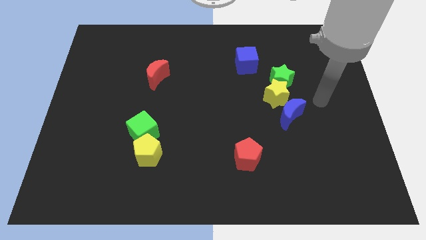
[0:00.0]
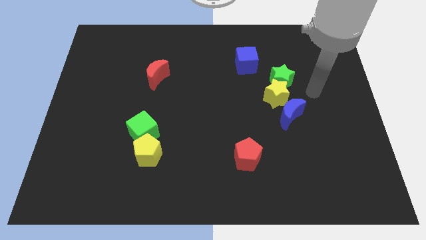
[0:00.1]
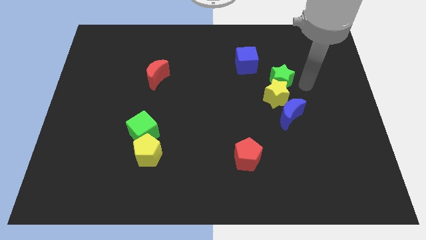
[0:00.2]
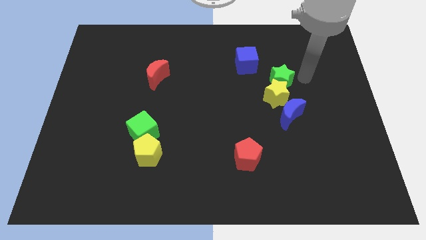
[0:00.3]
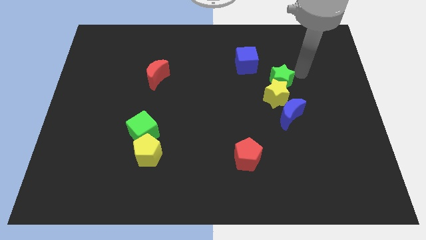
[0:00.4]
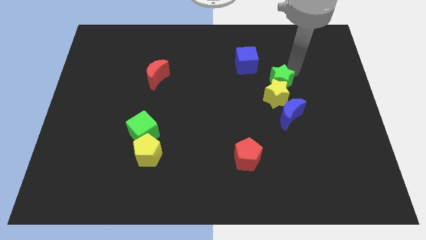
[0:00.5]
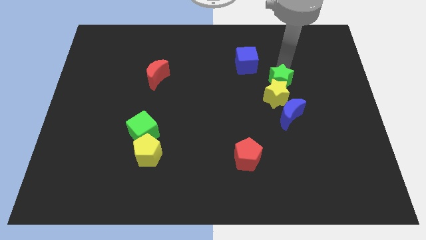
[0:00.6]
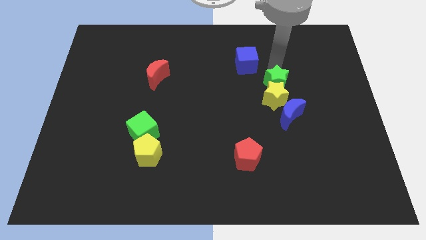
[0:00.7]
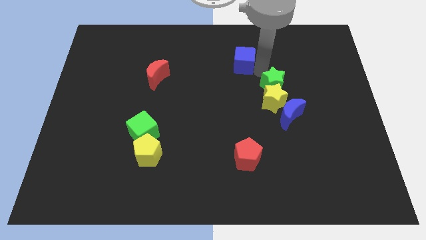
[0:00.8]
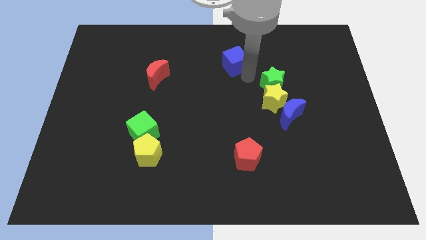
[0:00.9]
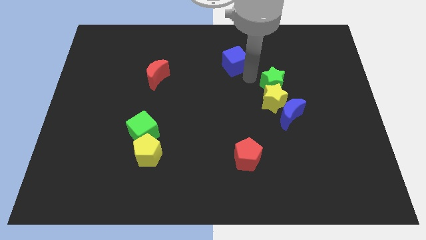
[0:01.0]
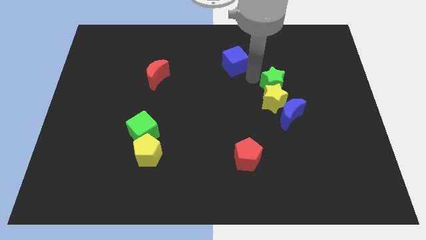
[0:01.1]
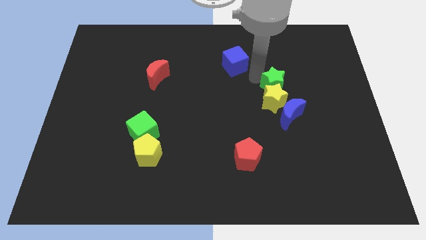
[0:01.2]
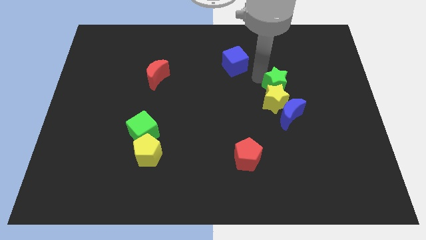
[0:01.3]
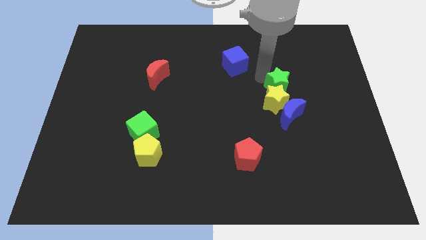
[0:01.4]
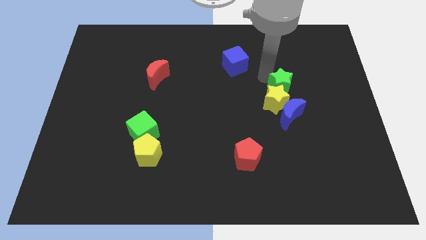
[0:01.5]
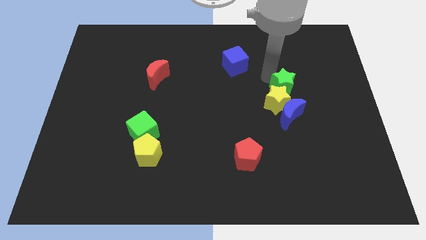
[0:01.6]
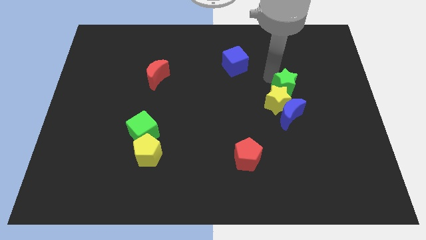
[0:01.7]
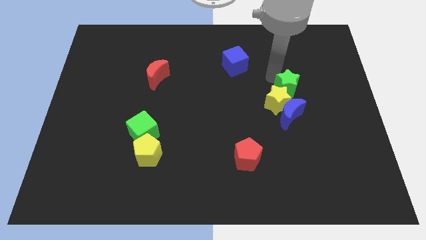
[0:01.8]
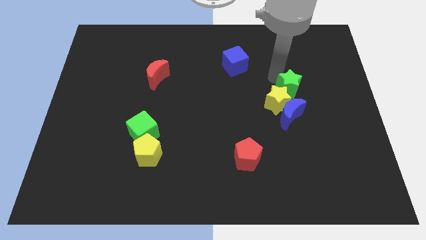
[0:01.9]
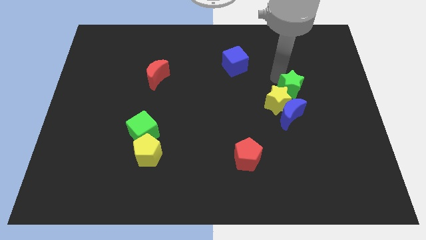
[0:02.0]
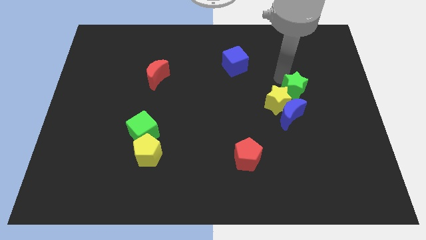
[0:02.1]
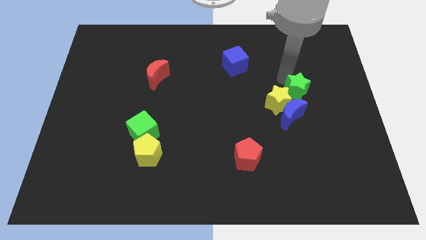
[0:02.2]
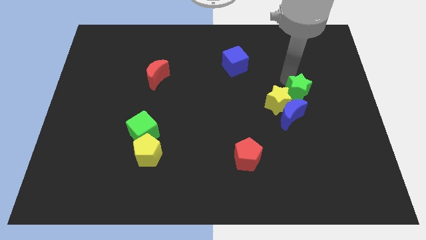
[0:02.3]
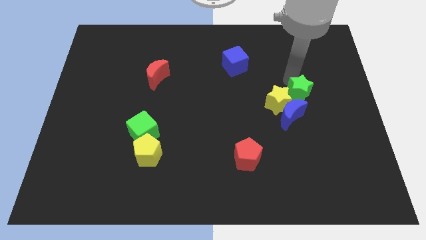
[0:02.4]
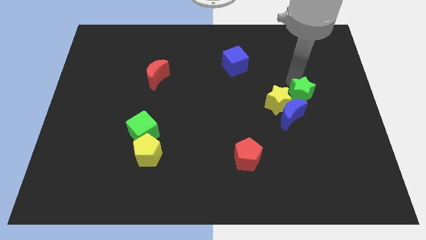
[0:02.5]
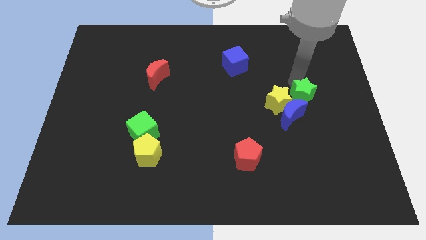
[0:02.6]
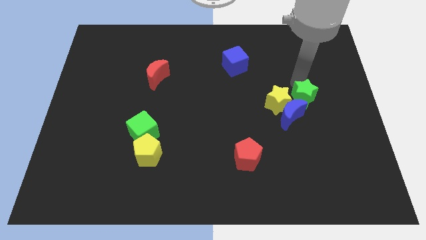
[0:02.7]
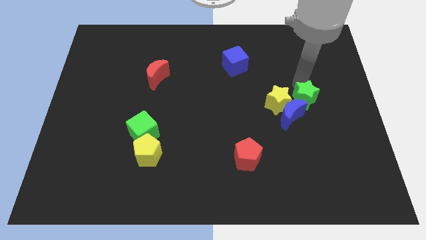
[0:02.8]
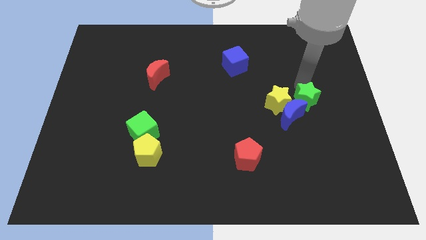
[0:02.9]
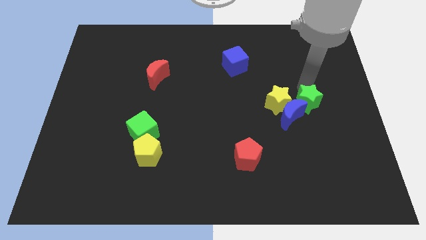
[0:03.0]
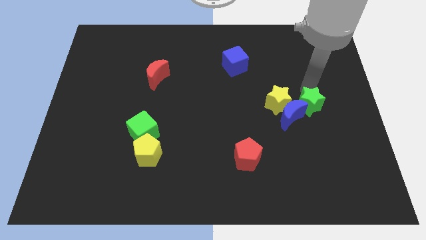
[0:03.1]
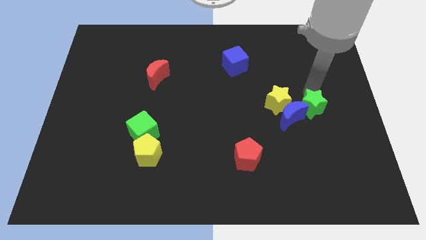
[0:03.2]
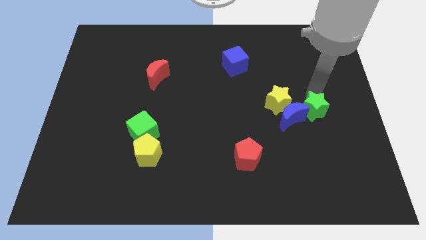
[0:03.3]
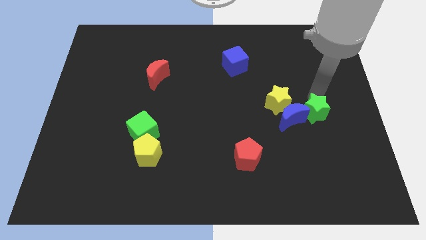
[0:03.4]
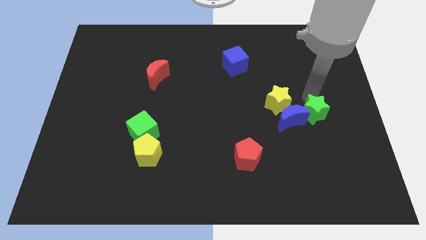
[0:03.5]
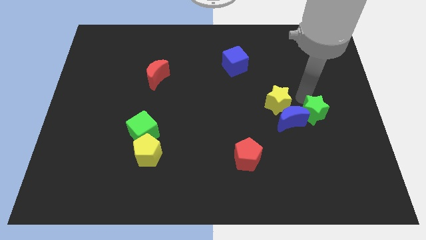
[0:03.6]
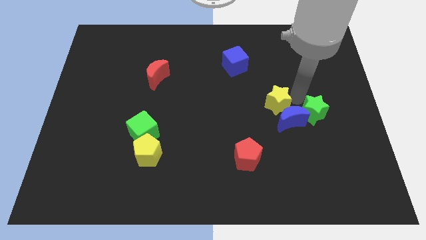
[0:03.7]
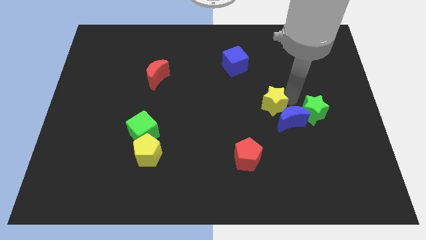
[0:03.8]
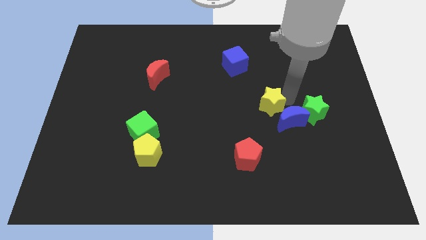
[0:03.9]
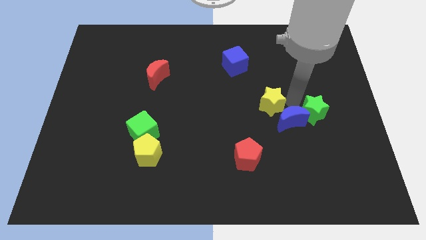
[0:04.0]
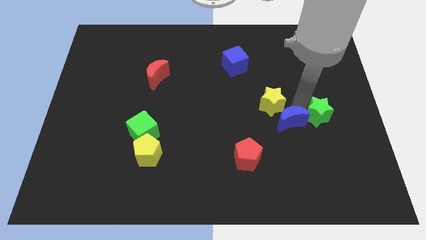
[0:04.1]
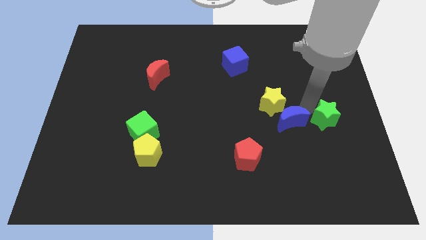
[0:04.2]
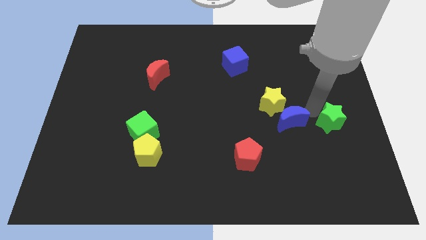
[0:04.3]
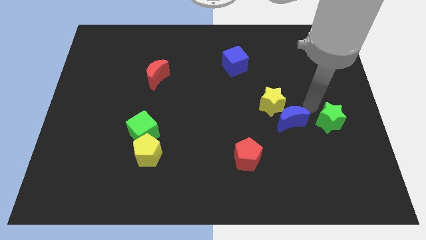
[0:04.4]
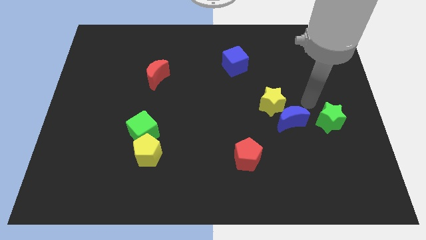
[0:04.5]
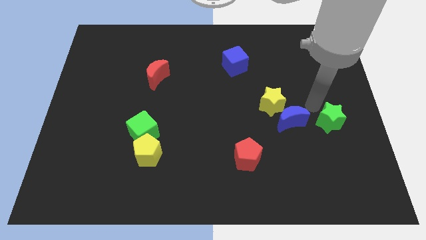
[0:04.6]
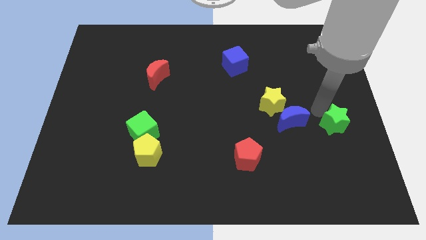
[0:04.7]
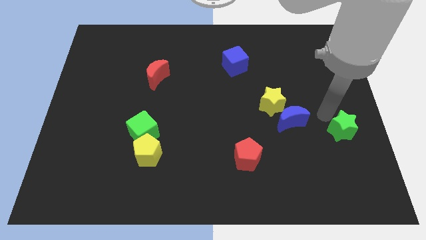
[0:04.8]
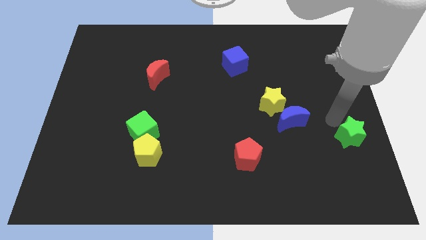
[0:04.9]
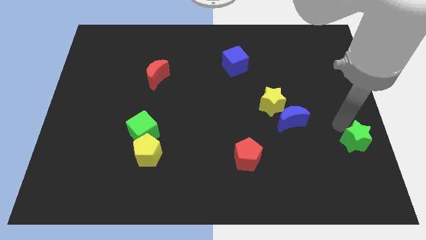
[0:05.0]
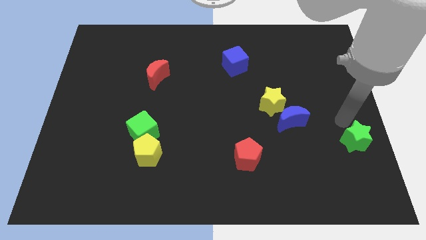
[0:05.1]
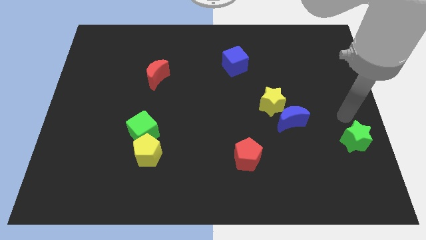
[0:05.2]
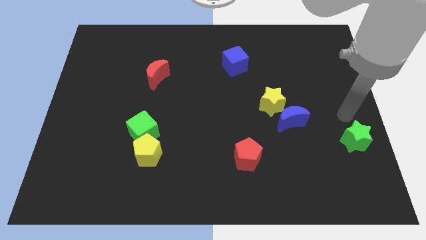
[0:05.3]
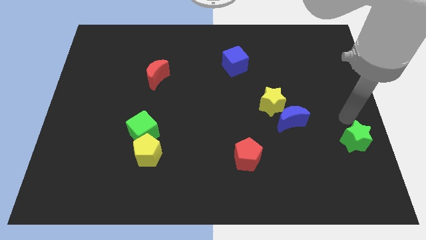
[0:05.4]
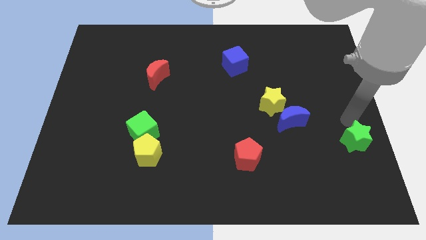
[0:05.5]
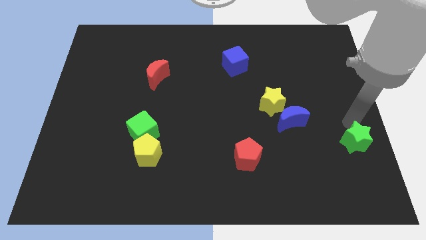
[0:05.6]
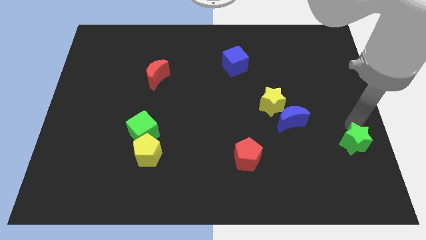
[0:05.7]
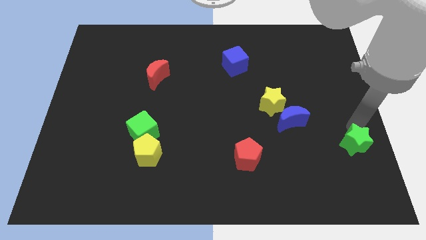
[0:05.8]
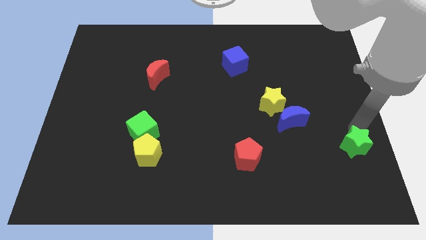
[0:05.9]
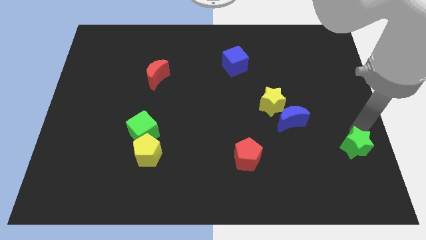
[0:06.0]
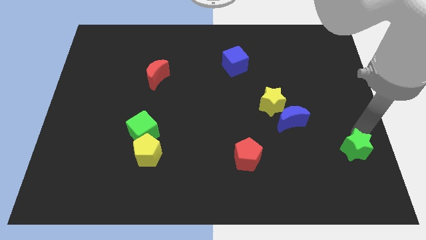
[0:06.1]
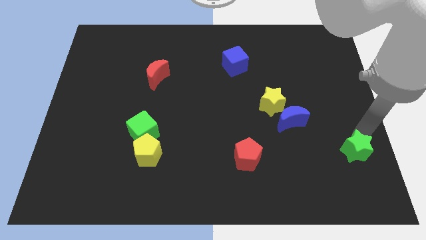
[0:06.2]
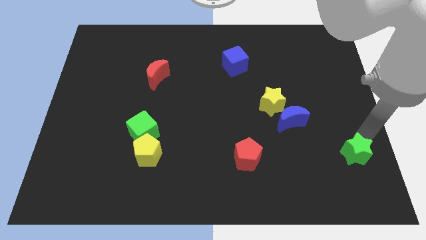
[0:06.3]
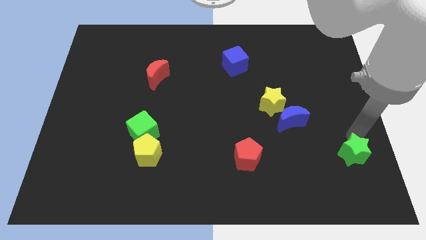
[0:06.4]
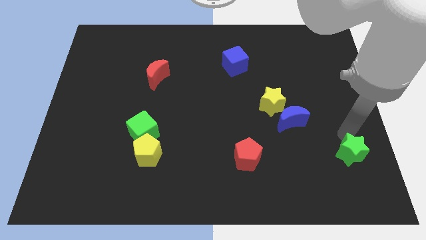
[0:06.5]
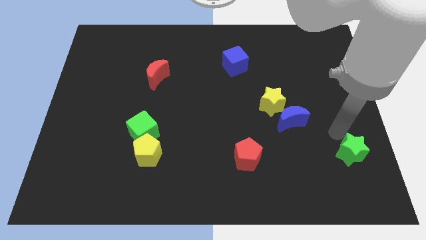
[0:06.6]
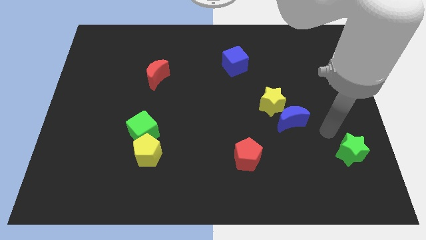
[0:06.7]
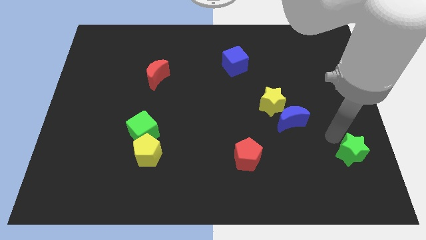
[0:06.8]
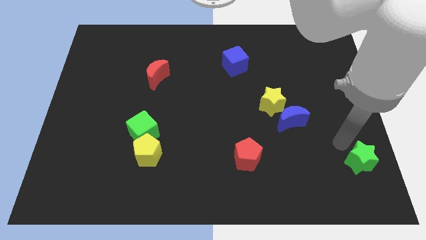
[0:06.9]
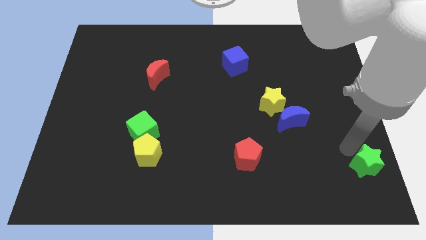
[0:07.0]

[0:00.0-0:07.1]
slide the green star to the bottom right

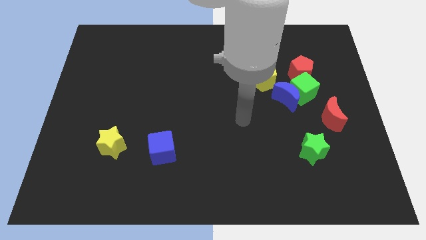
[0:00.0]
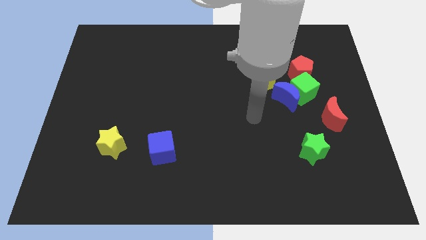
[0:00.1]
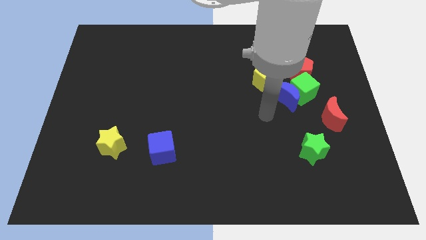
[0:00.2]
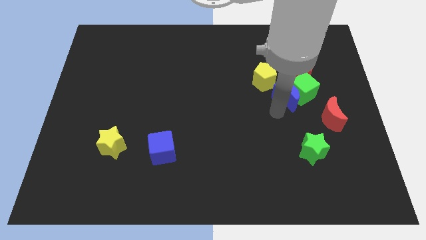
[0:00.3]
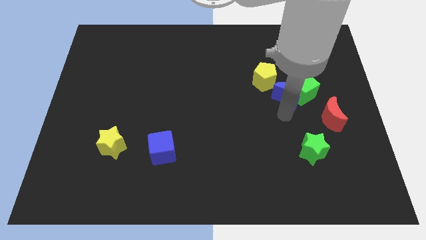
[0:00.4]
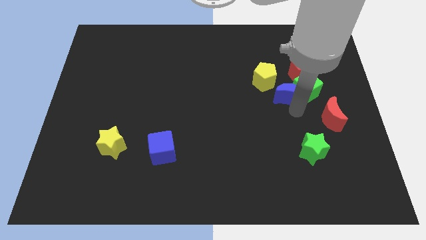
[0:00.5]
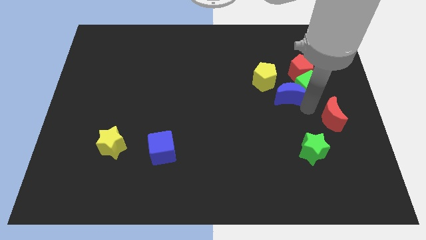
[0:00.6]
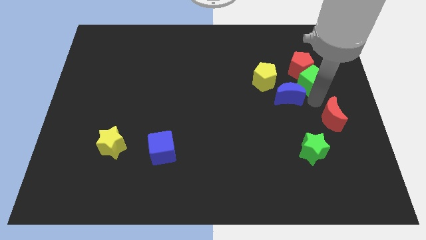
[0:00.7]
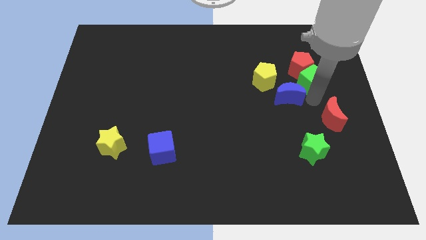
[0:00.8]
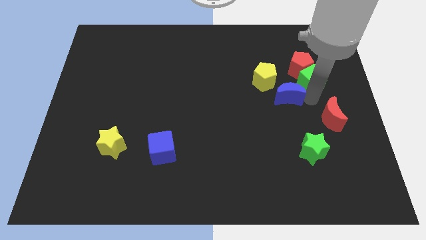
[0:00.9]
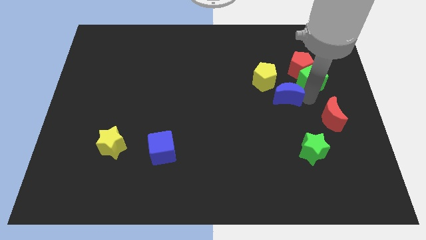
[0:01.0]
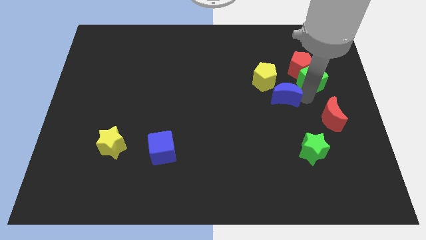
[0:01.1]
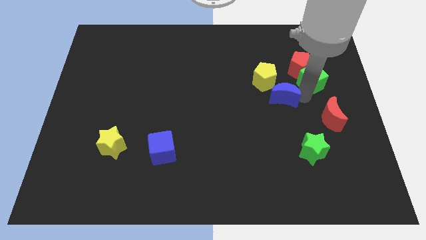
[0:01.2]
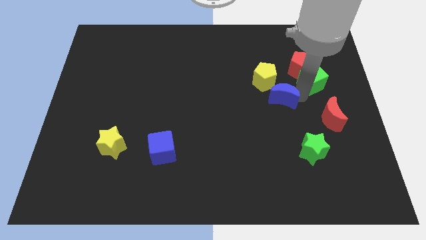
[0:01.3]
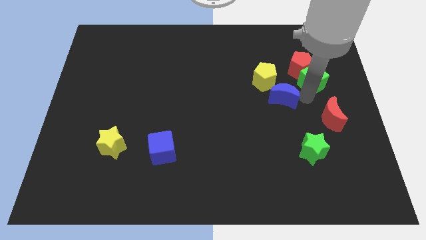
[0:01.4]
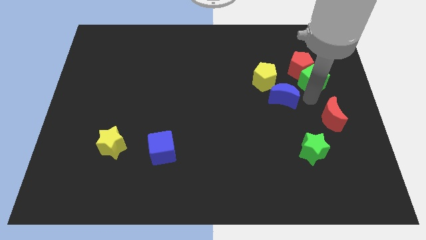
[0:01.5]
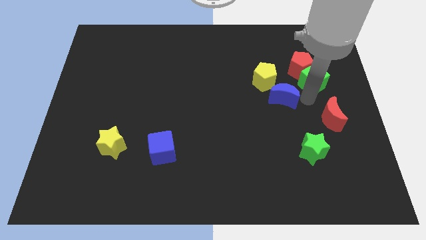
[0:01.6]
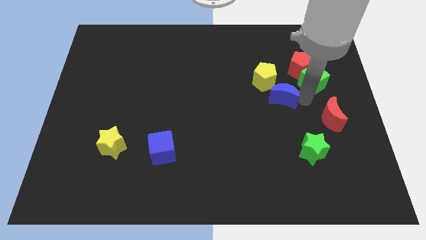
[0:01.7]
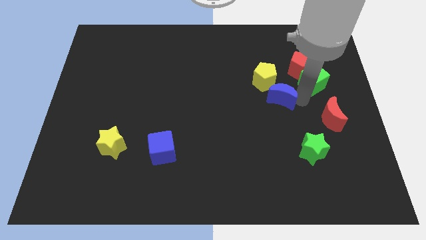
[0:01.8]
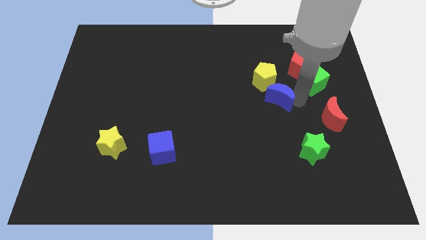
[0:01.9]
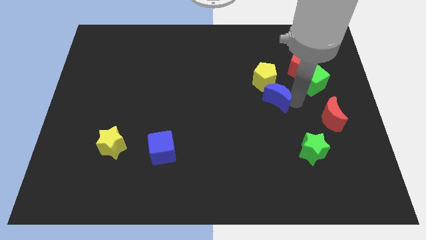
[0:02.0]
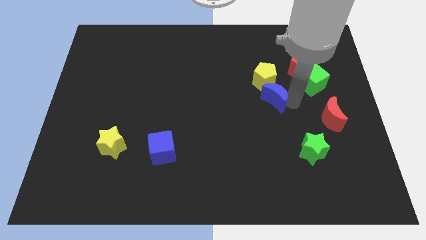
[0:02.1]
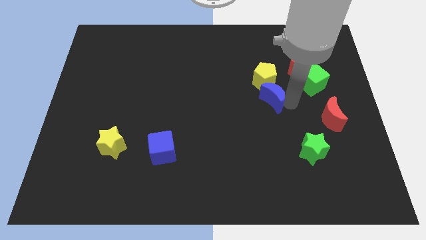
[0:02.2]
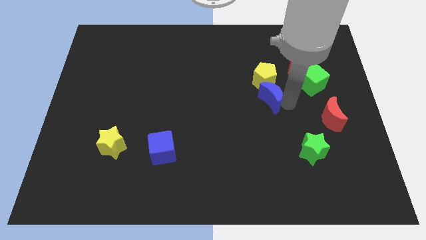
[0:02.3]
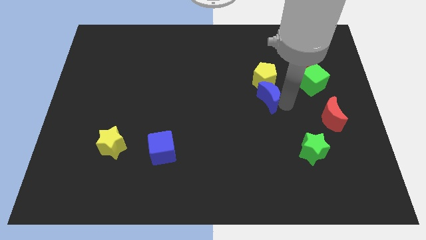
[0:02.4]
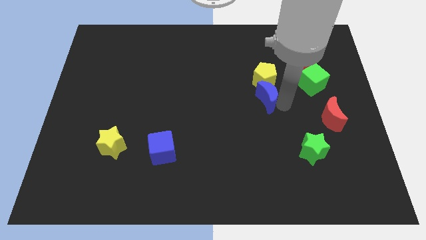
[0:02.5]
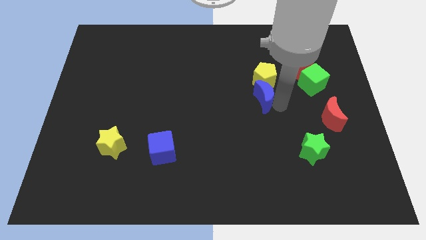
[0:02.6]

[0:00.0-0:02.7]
slide the blue moon to the center
